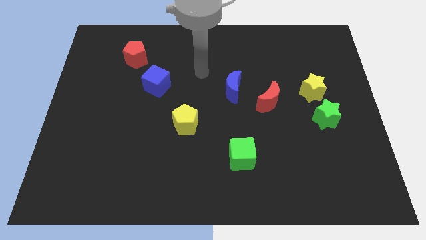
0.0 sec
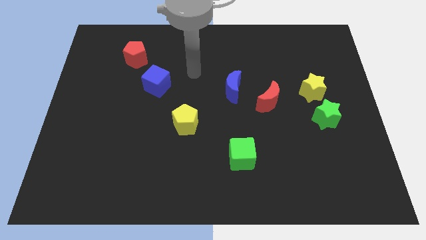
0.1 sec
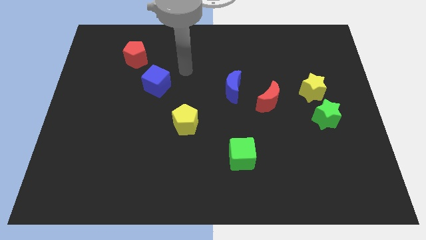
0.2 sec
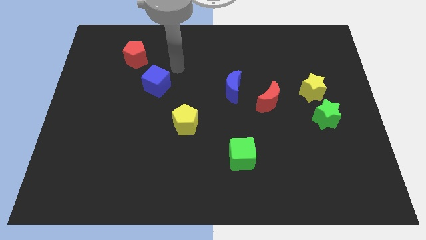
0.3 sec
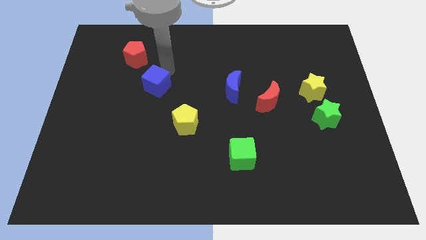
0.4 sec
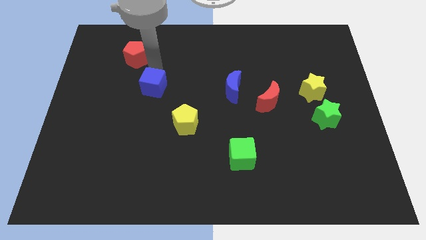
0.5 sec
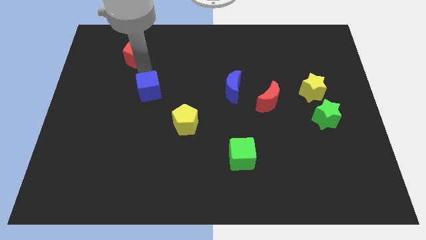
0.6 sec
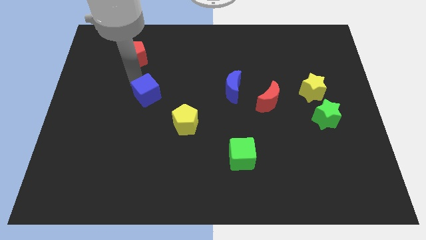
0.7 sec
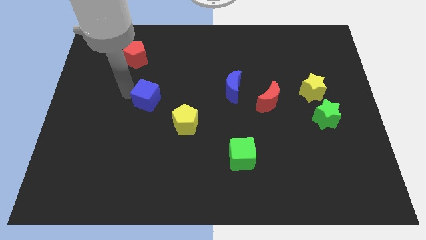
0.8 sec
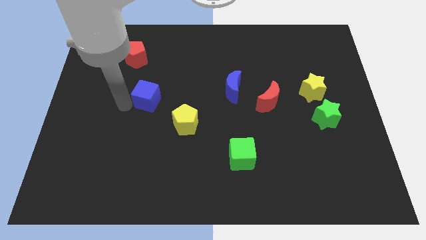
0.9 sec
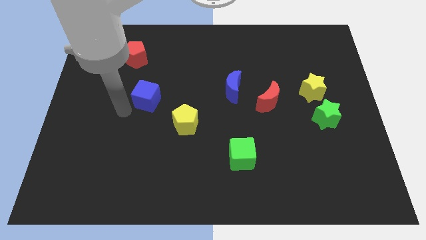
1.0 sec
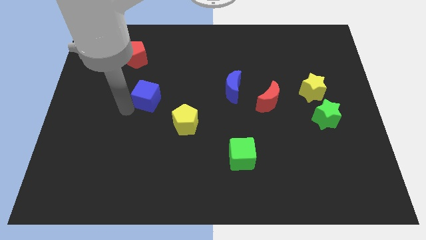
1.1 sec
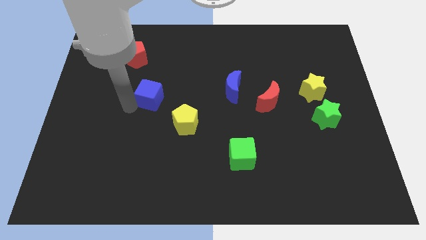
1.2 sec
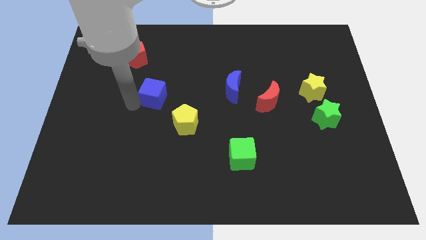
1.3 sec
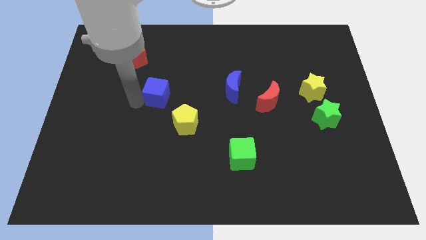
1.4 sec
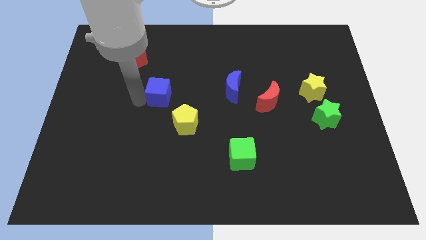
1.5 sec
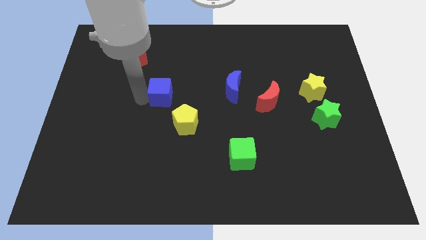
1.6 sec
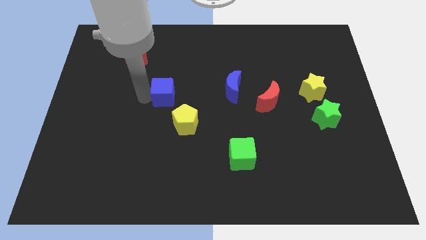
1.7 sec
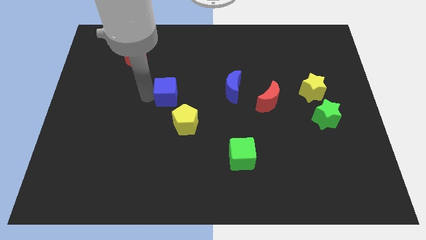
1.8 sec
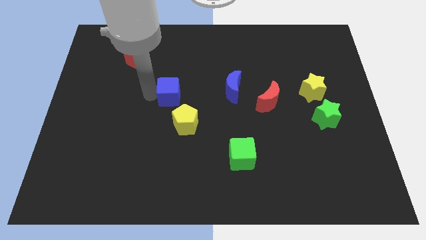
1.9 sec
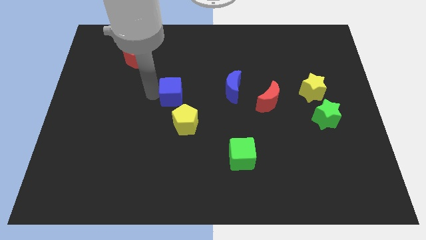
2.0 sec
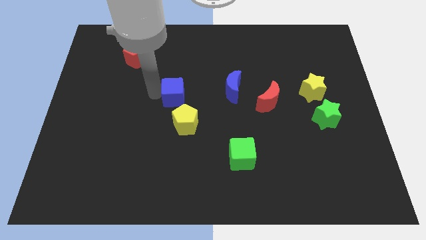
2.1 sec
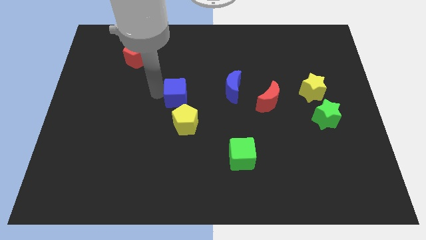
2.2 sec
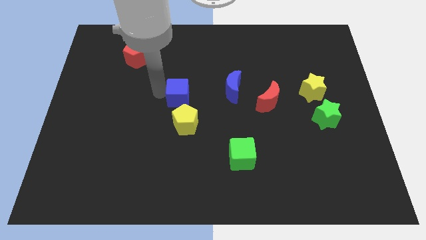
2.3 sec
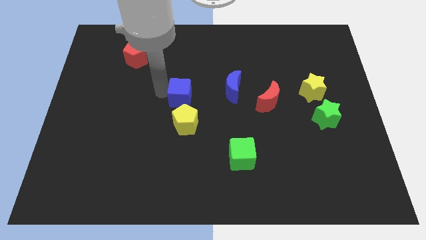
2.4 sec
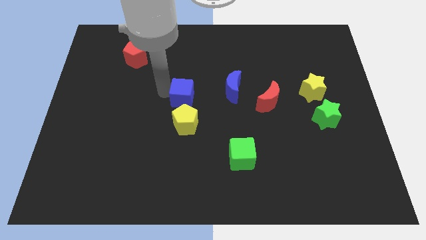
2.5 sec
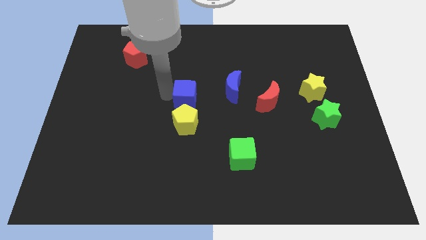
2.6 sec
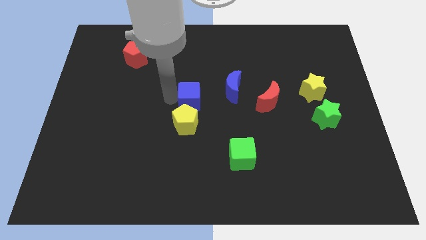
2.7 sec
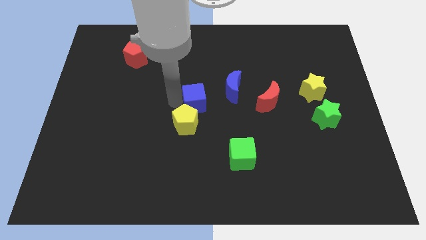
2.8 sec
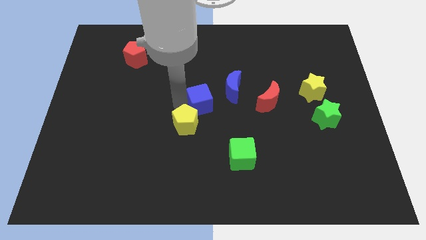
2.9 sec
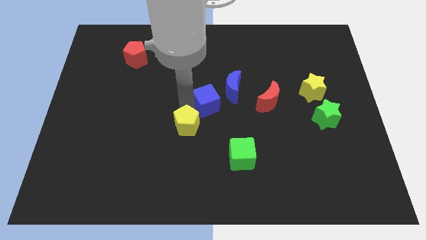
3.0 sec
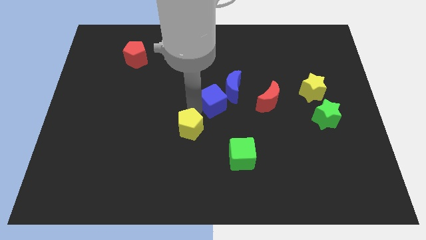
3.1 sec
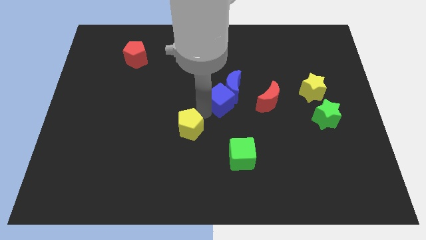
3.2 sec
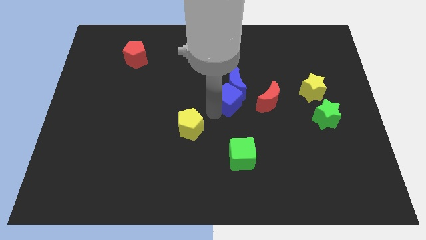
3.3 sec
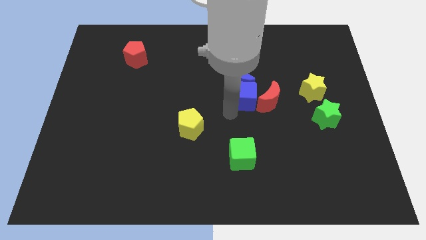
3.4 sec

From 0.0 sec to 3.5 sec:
slide the blue cube right

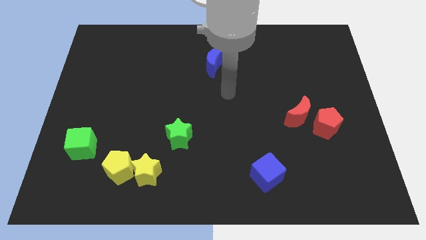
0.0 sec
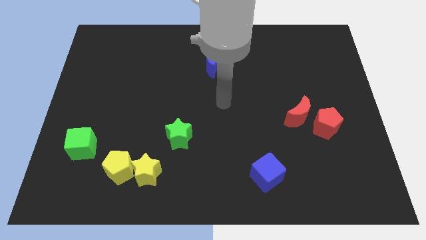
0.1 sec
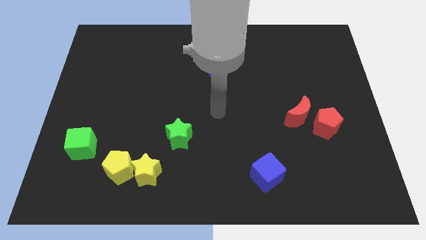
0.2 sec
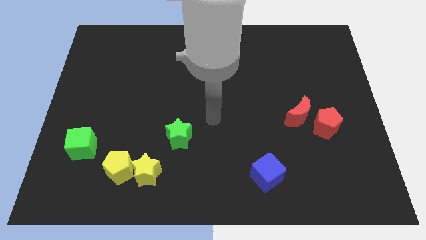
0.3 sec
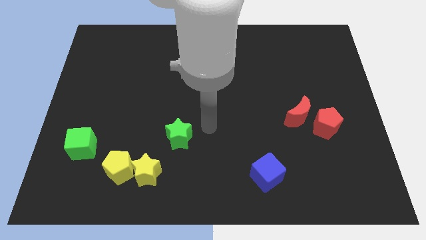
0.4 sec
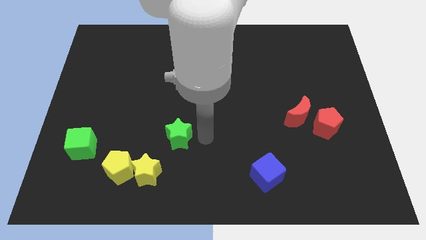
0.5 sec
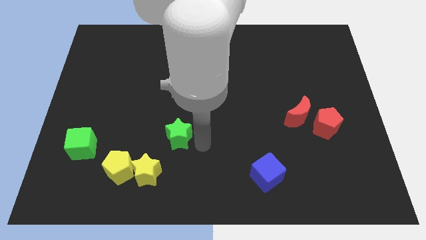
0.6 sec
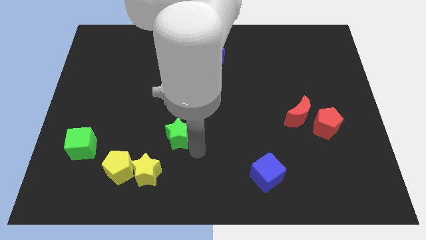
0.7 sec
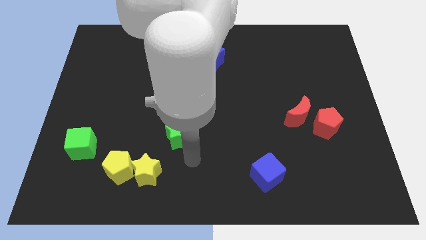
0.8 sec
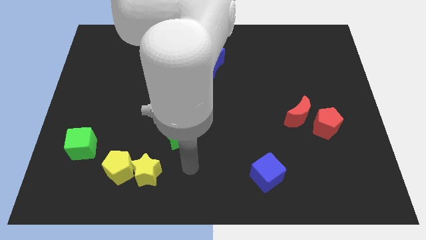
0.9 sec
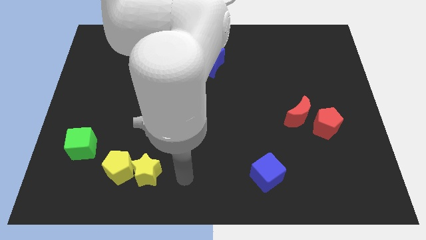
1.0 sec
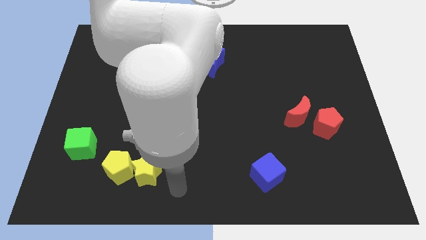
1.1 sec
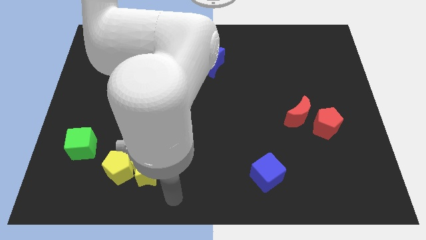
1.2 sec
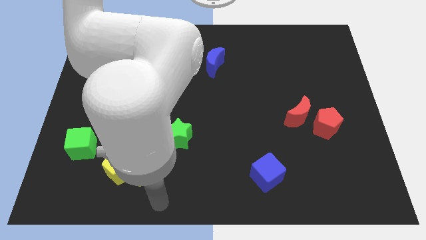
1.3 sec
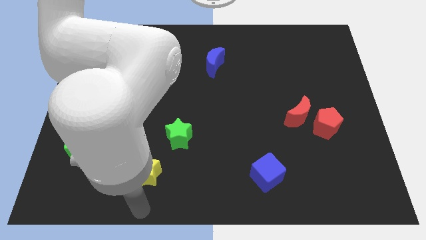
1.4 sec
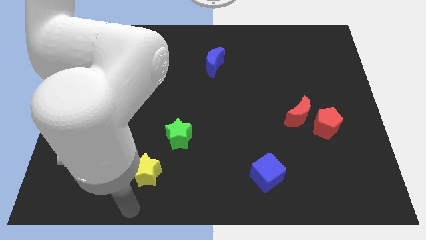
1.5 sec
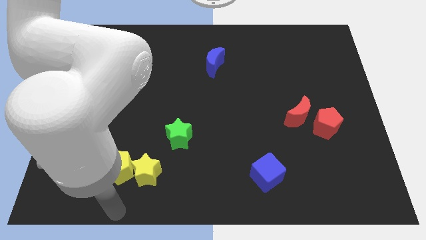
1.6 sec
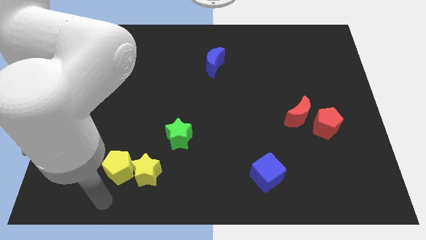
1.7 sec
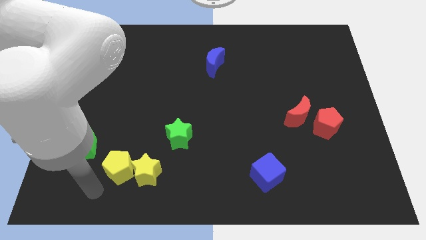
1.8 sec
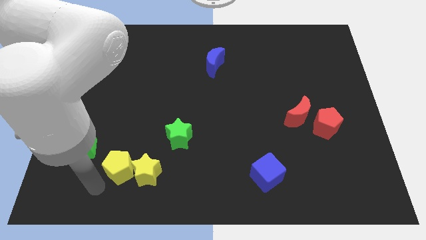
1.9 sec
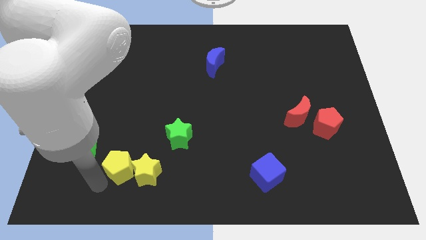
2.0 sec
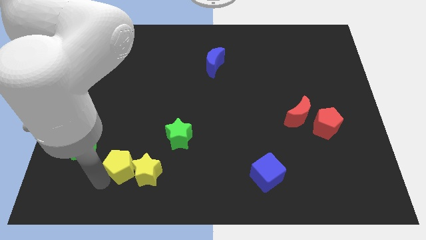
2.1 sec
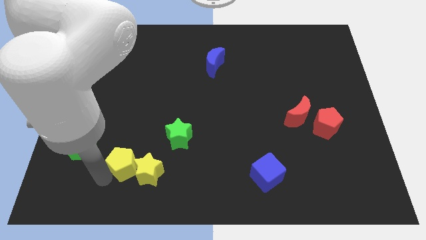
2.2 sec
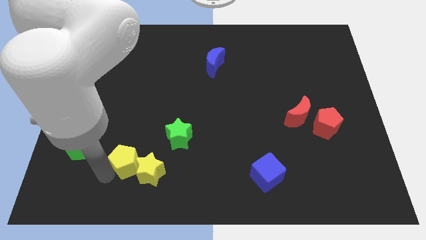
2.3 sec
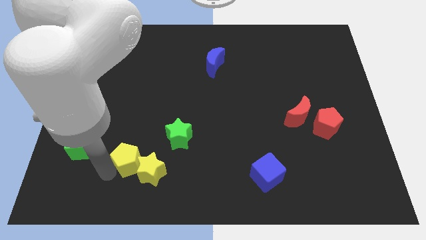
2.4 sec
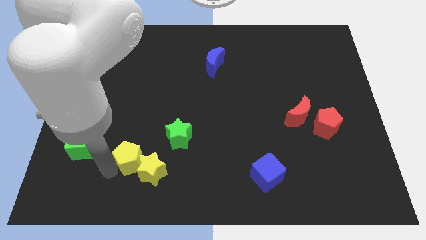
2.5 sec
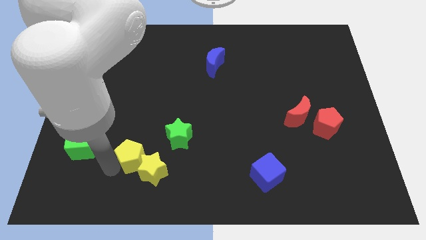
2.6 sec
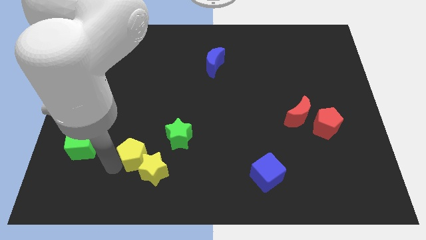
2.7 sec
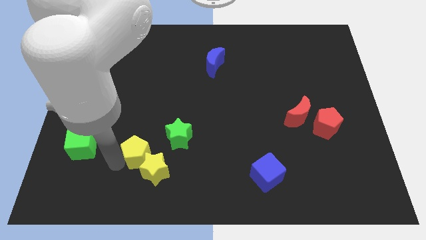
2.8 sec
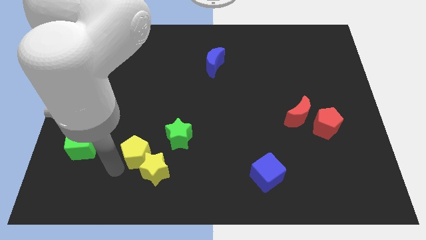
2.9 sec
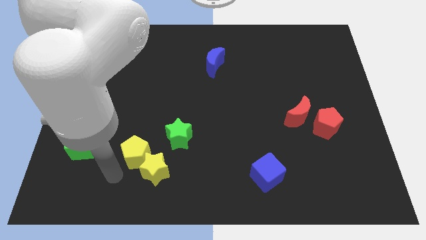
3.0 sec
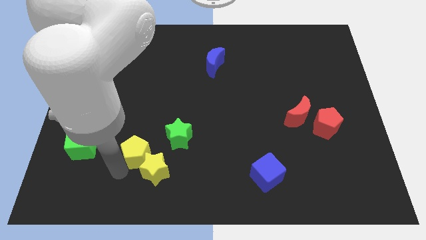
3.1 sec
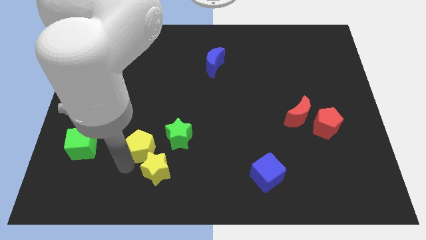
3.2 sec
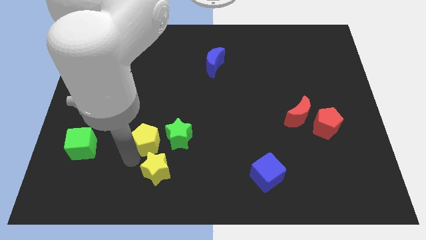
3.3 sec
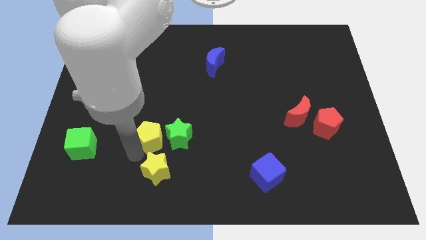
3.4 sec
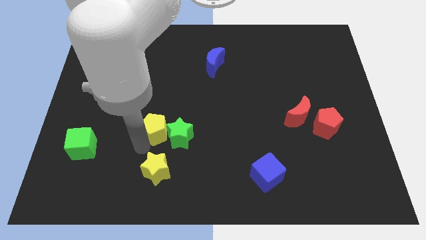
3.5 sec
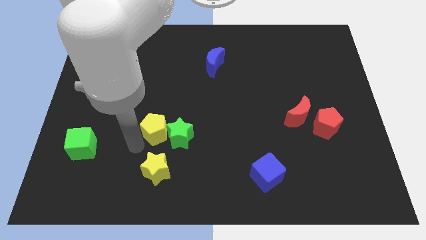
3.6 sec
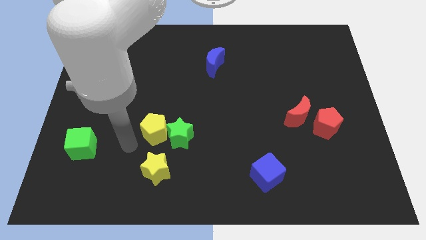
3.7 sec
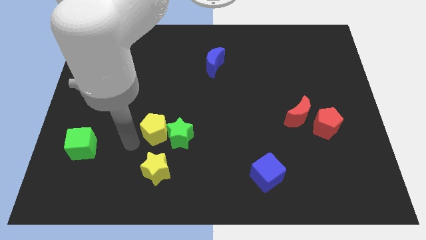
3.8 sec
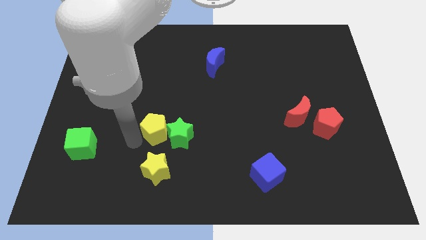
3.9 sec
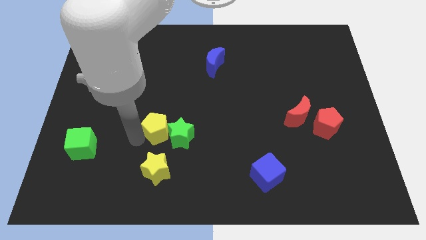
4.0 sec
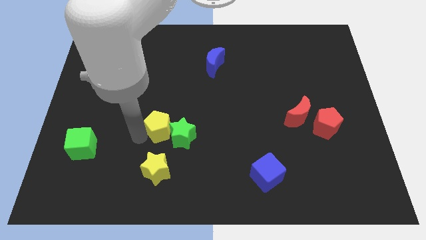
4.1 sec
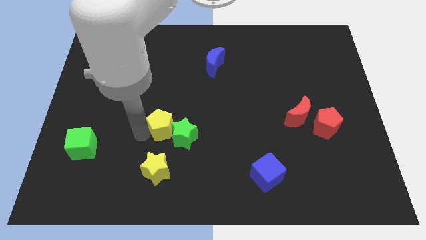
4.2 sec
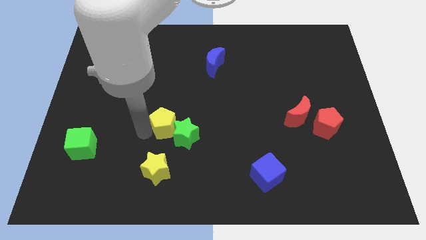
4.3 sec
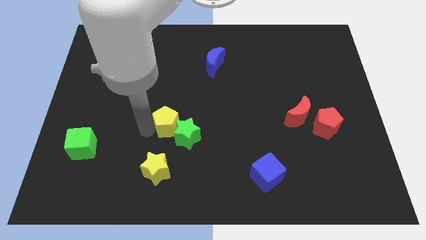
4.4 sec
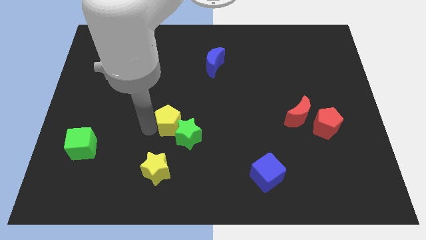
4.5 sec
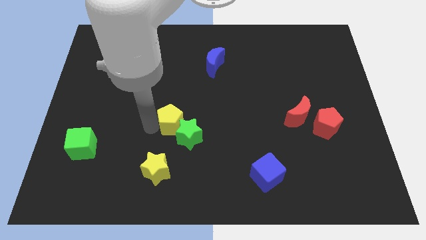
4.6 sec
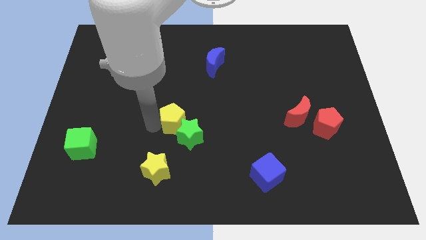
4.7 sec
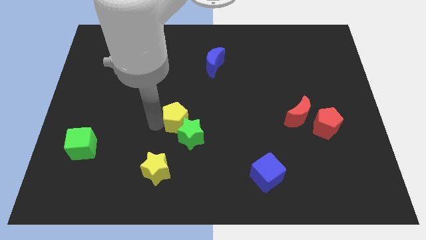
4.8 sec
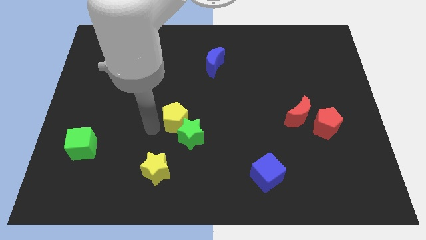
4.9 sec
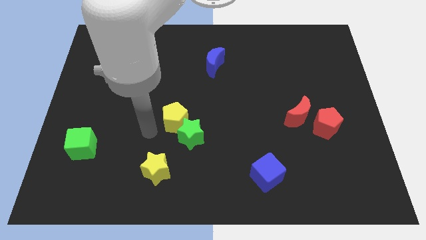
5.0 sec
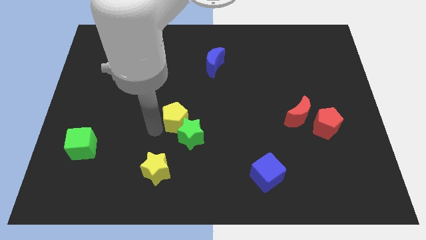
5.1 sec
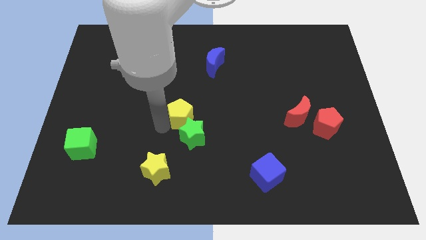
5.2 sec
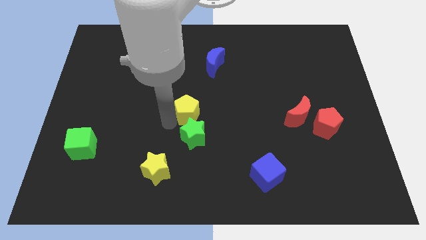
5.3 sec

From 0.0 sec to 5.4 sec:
slide the yellow pentagon diagonally up and right
